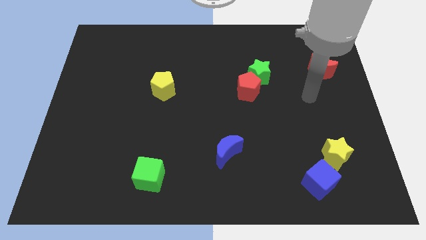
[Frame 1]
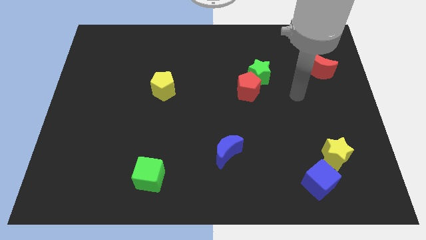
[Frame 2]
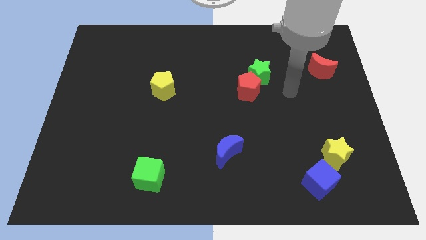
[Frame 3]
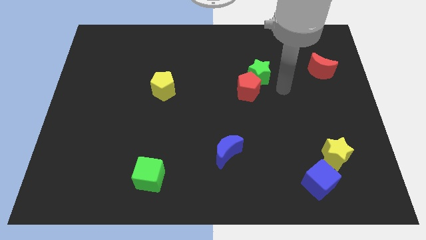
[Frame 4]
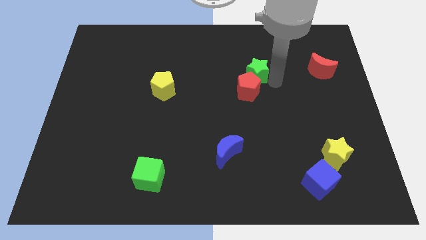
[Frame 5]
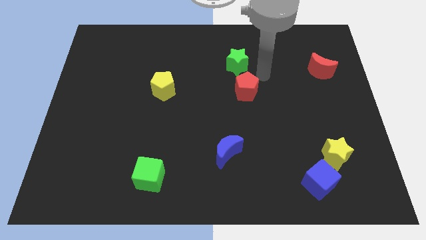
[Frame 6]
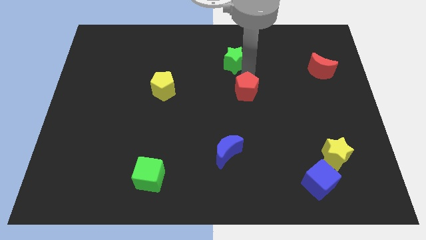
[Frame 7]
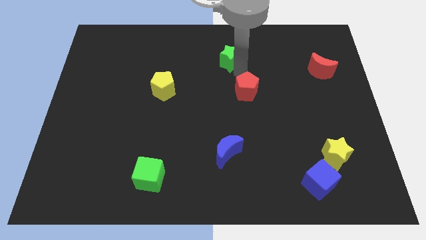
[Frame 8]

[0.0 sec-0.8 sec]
separate the red pentagon from the green star

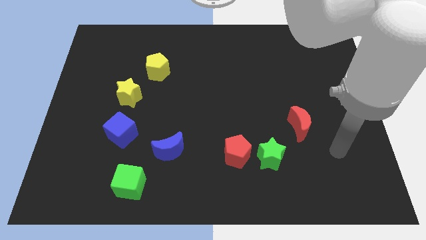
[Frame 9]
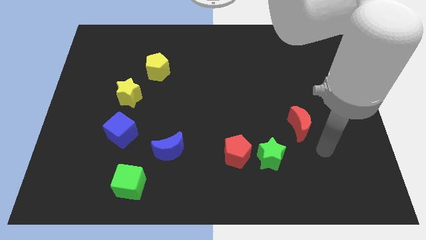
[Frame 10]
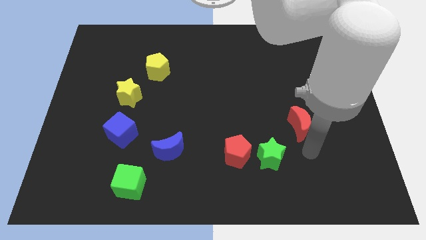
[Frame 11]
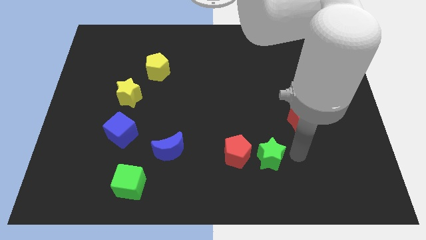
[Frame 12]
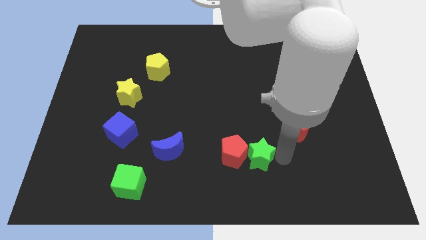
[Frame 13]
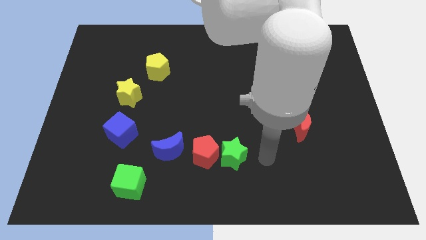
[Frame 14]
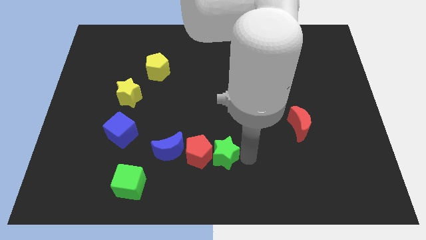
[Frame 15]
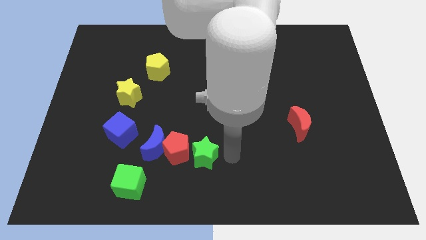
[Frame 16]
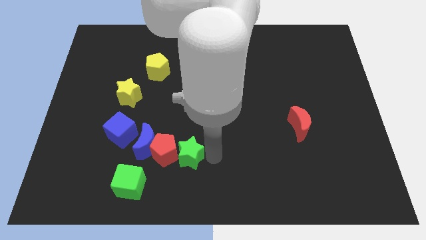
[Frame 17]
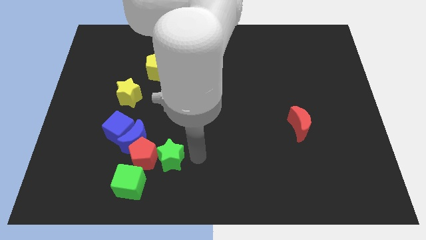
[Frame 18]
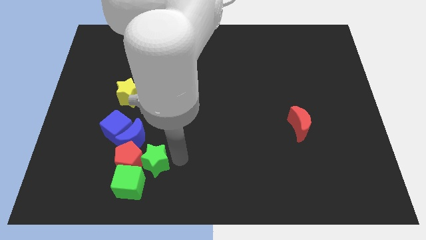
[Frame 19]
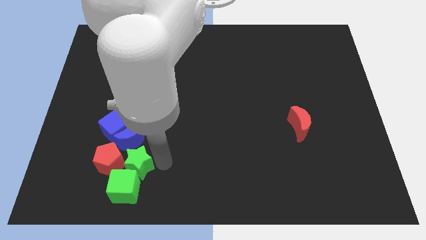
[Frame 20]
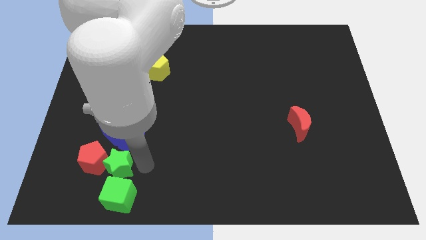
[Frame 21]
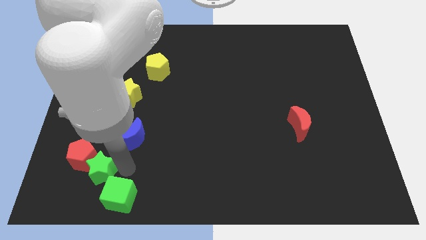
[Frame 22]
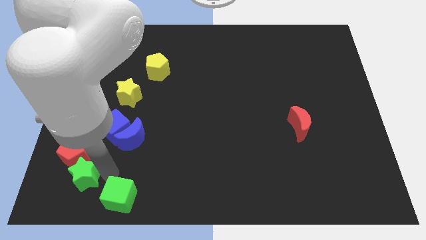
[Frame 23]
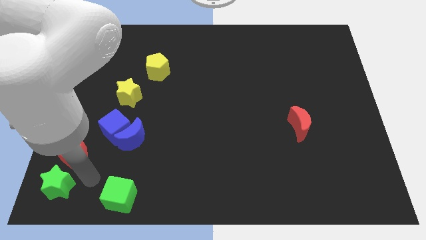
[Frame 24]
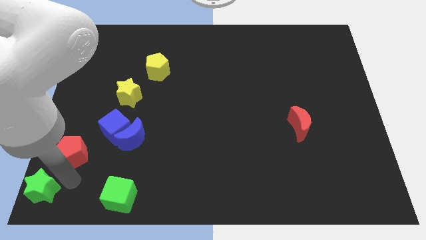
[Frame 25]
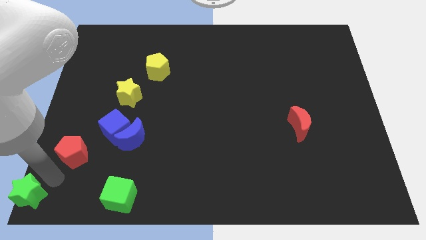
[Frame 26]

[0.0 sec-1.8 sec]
move the red pentagon away from the green star

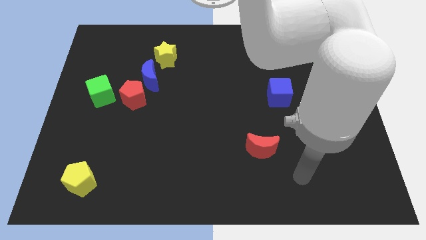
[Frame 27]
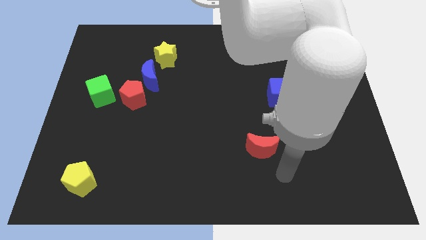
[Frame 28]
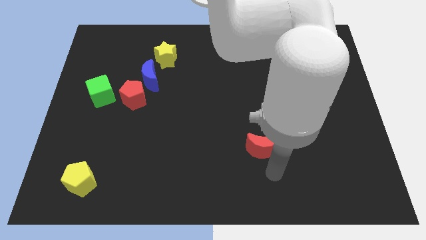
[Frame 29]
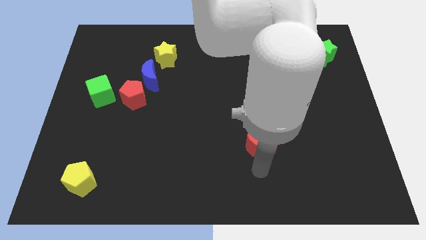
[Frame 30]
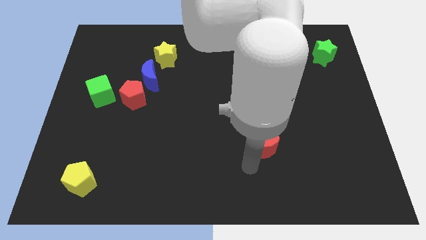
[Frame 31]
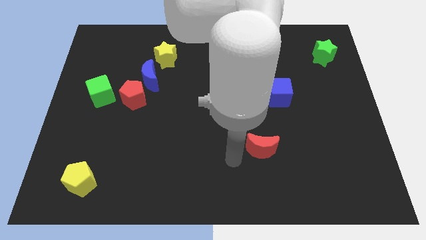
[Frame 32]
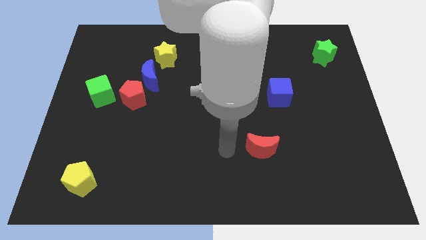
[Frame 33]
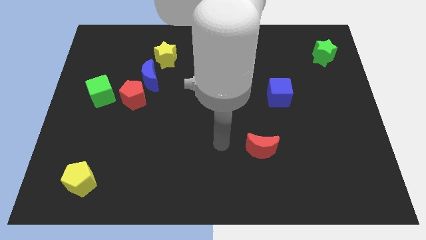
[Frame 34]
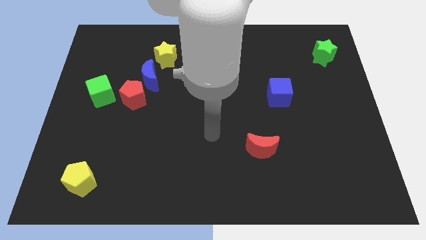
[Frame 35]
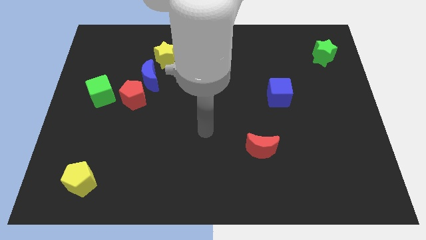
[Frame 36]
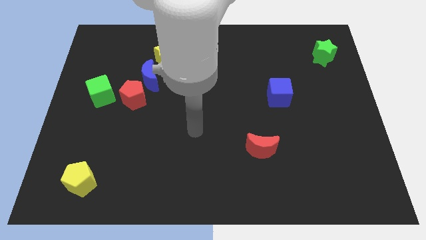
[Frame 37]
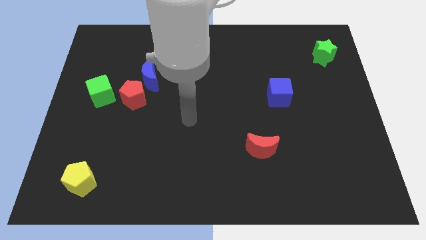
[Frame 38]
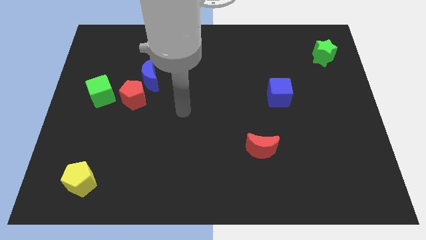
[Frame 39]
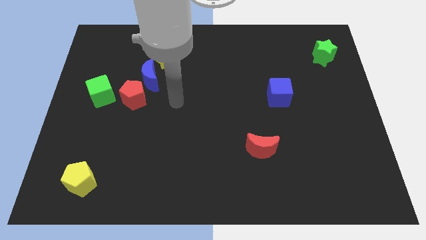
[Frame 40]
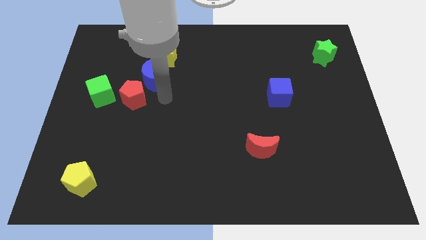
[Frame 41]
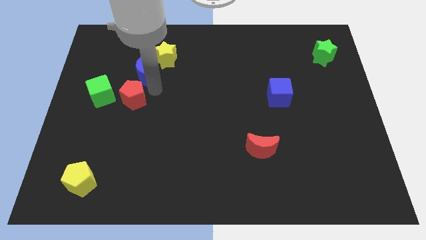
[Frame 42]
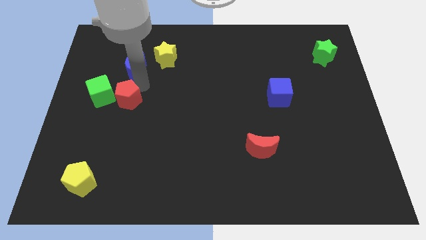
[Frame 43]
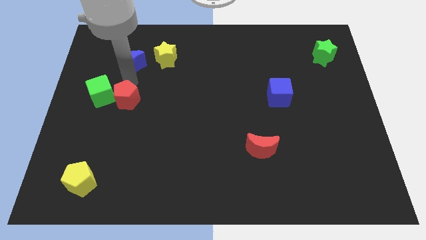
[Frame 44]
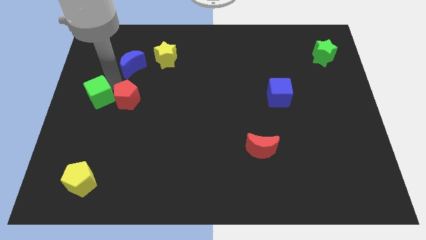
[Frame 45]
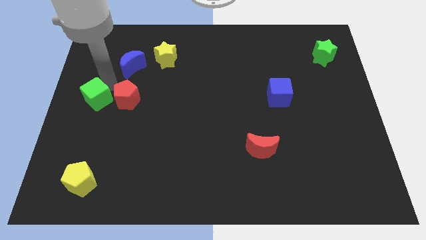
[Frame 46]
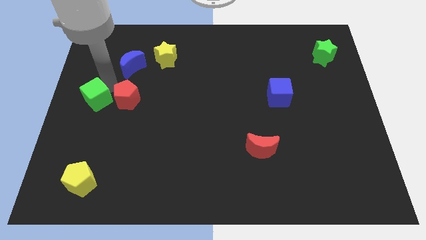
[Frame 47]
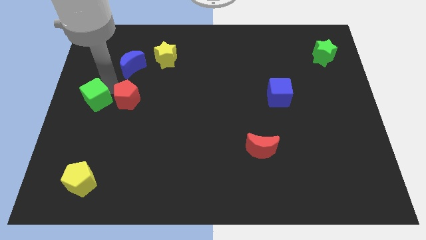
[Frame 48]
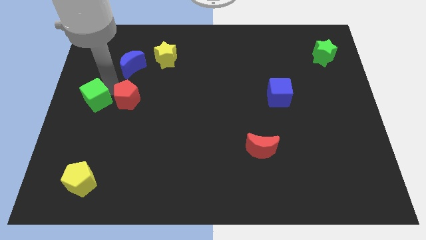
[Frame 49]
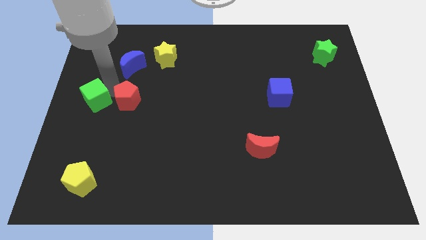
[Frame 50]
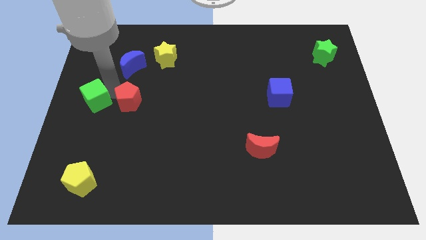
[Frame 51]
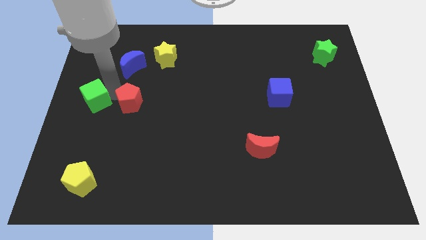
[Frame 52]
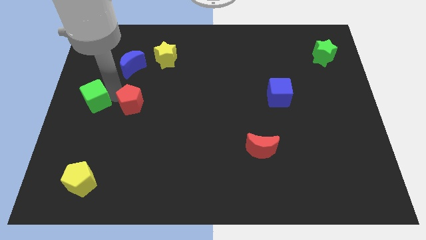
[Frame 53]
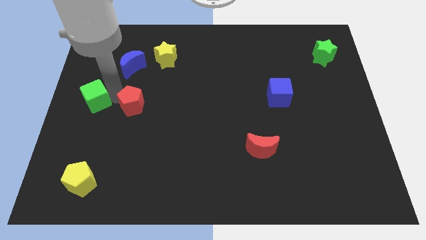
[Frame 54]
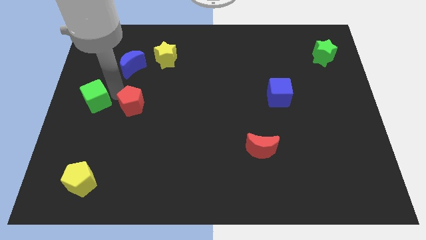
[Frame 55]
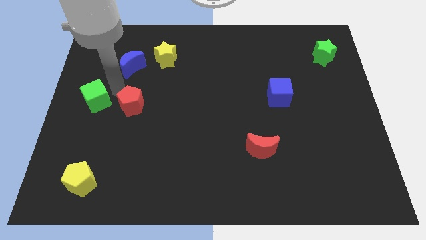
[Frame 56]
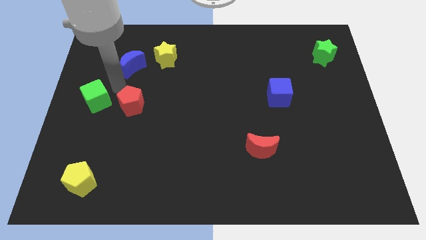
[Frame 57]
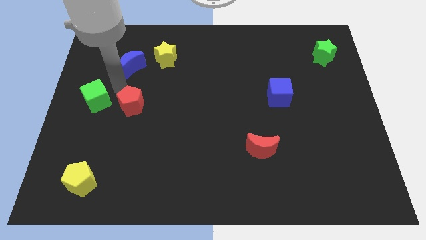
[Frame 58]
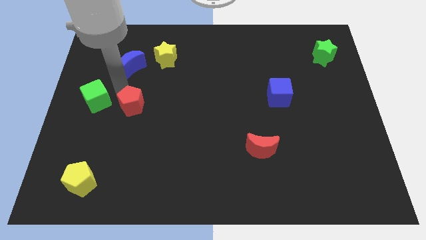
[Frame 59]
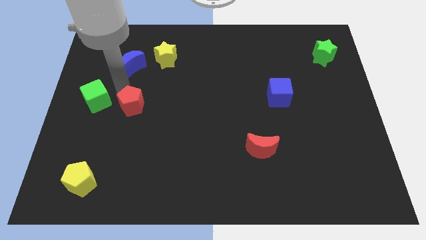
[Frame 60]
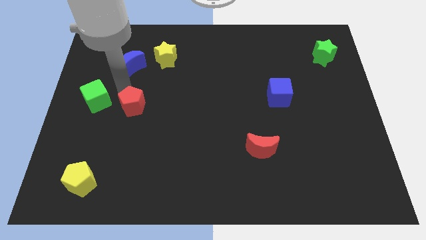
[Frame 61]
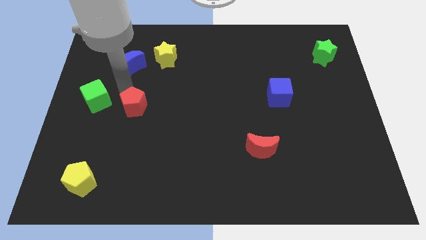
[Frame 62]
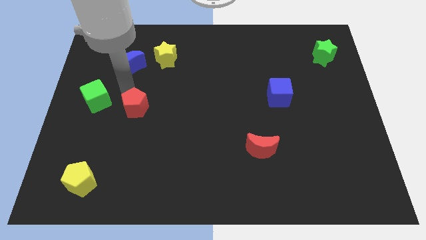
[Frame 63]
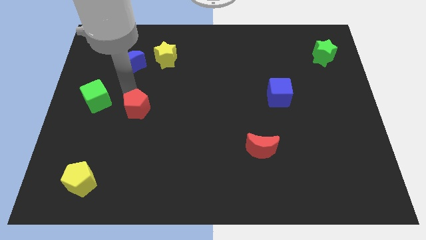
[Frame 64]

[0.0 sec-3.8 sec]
move the red pentagon away from the blue moon and green cube

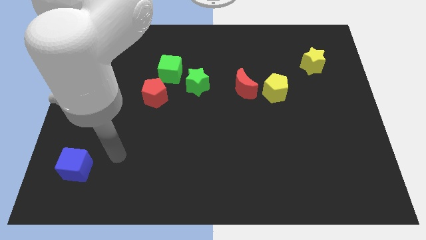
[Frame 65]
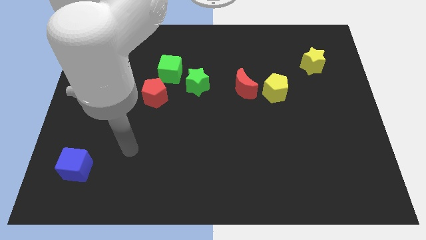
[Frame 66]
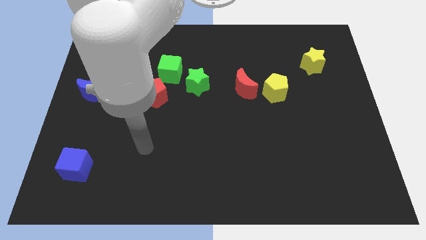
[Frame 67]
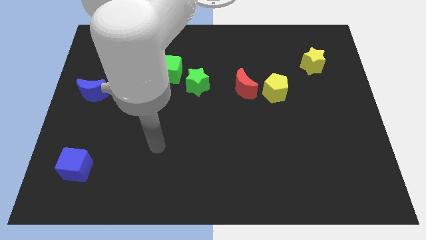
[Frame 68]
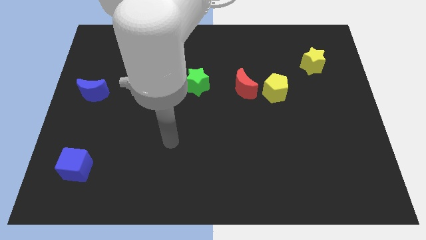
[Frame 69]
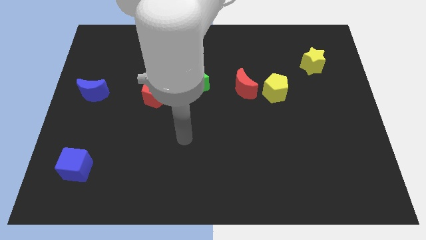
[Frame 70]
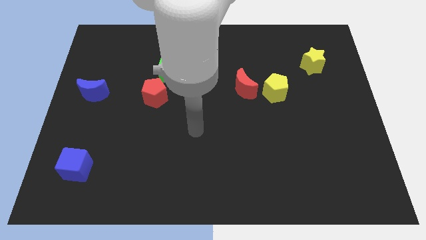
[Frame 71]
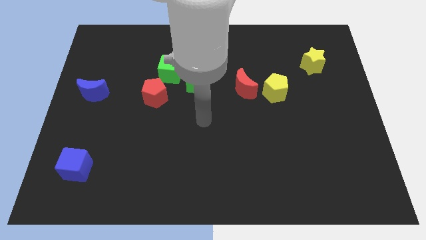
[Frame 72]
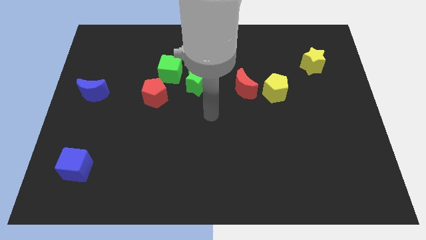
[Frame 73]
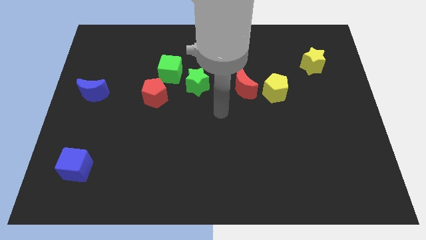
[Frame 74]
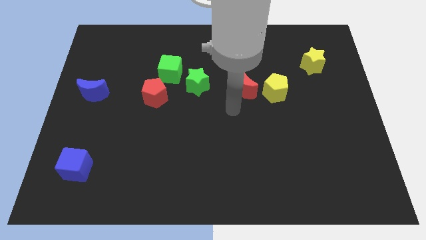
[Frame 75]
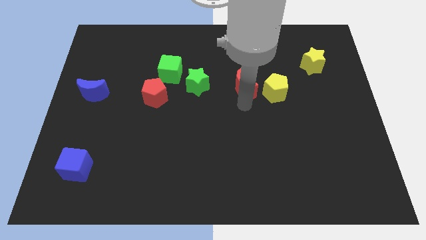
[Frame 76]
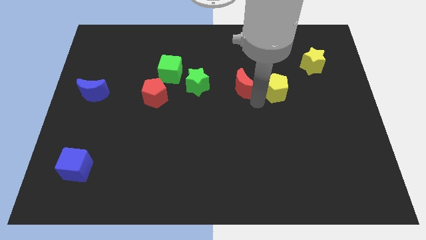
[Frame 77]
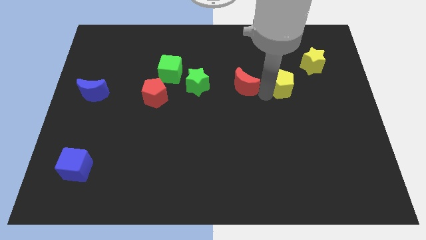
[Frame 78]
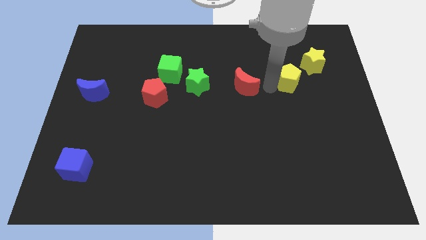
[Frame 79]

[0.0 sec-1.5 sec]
separate the red moon from the yellow pentagon

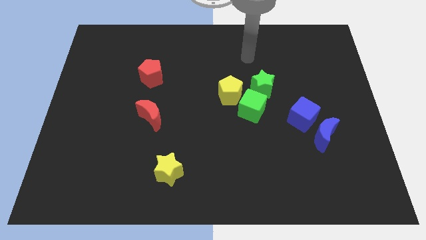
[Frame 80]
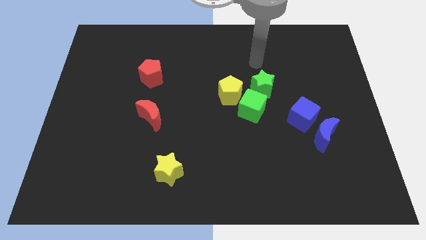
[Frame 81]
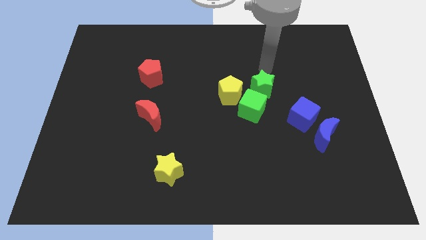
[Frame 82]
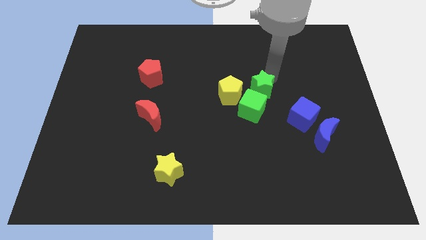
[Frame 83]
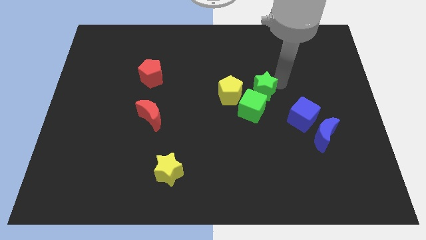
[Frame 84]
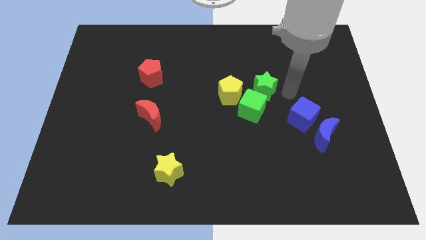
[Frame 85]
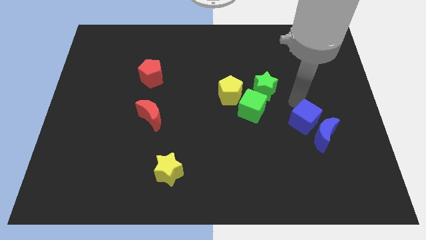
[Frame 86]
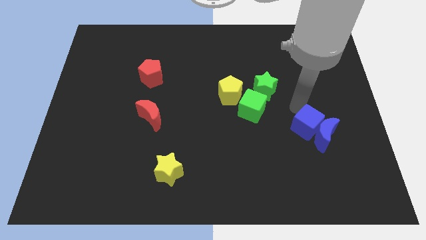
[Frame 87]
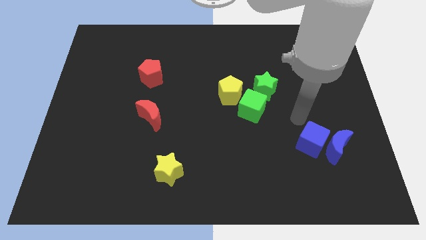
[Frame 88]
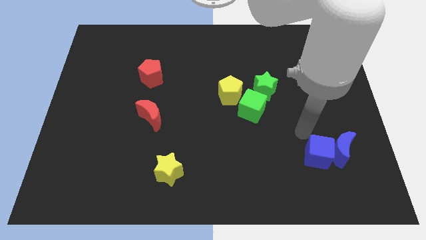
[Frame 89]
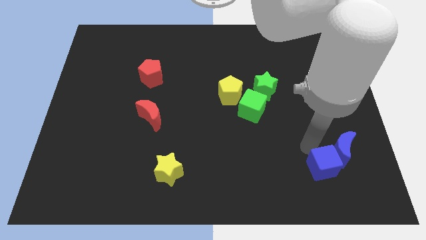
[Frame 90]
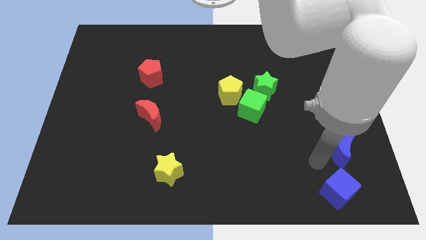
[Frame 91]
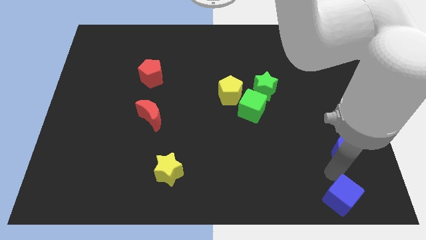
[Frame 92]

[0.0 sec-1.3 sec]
pull the blue moon apart from the blue cube
